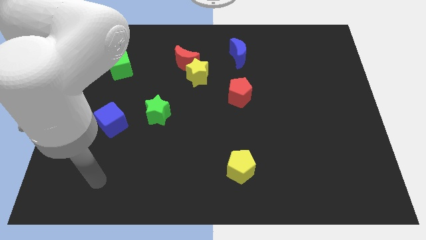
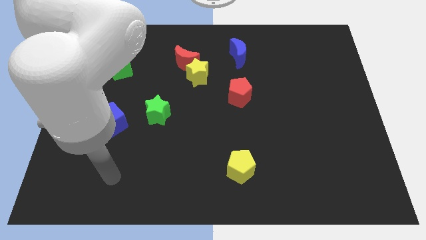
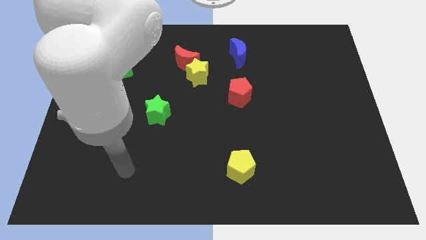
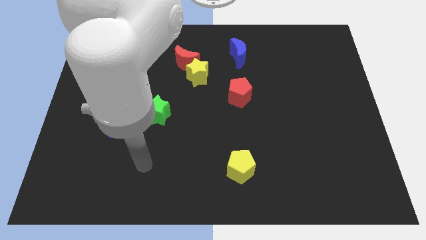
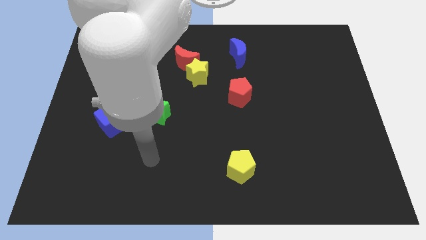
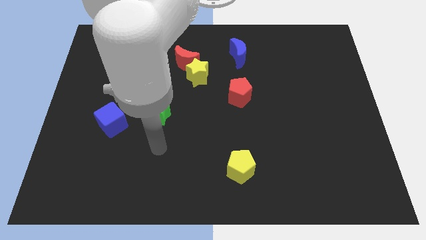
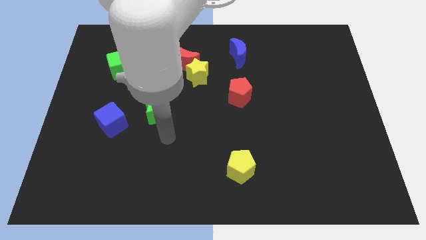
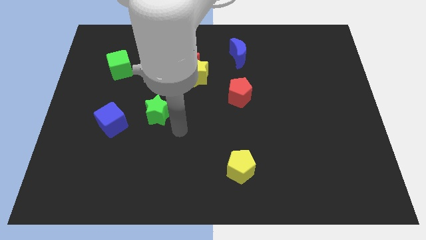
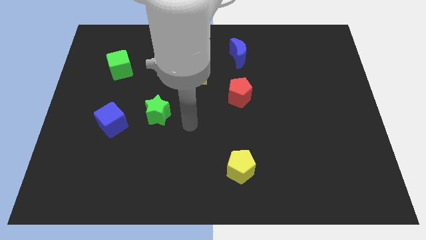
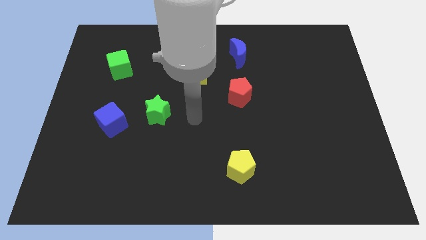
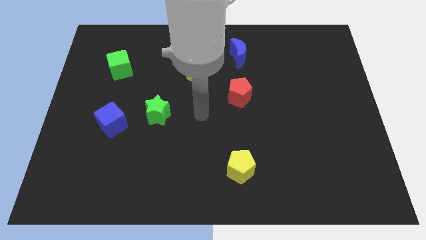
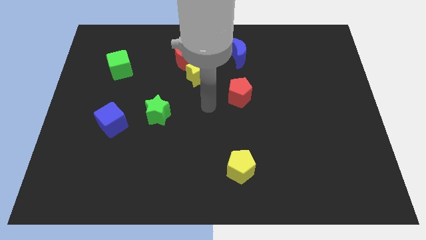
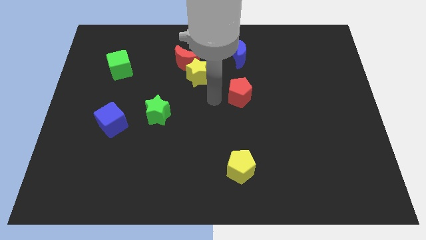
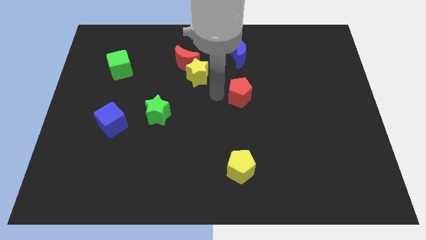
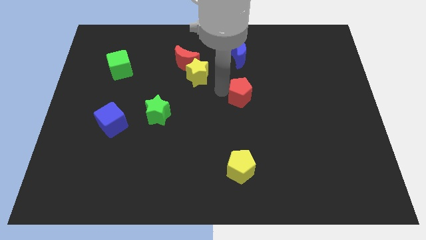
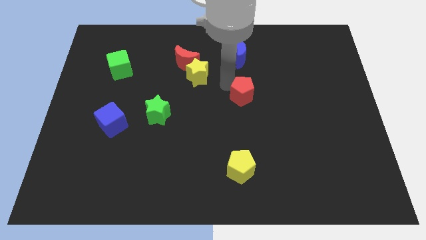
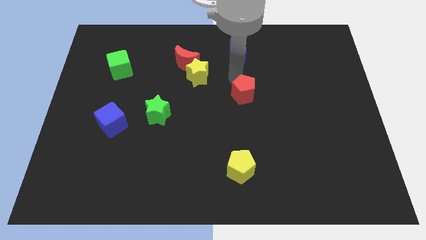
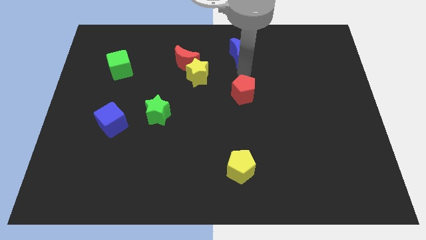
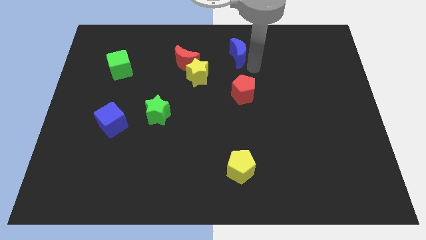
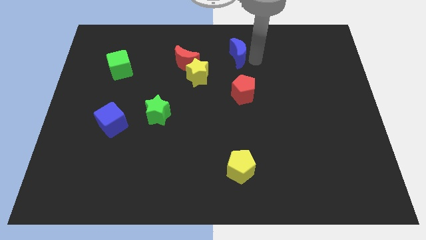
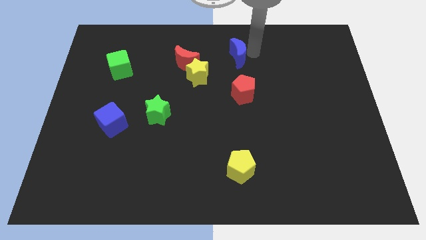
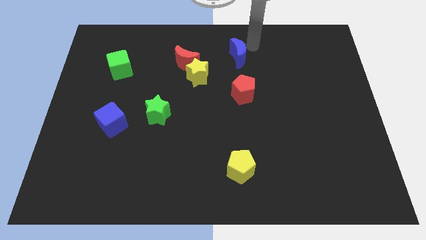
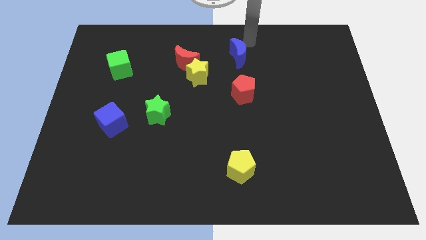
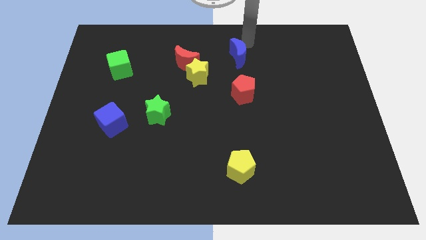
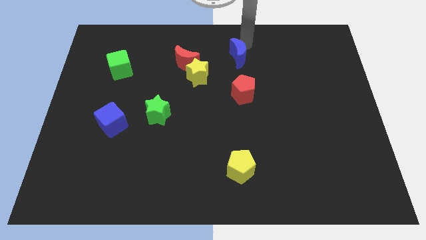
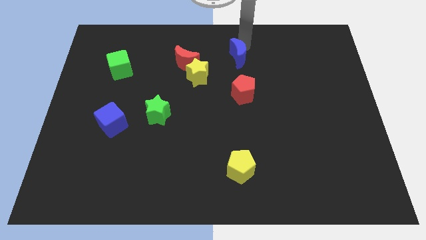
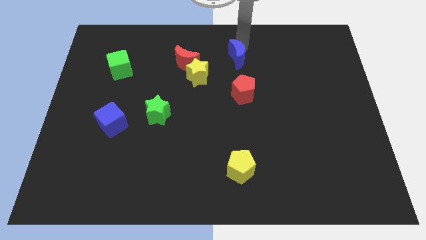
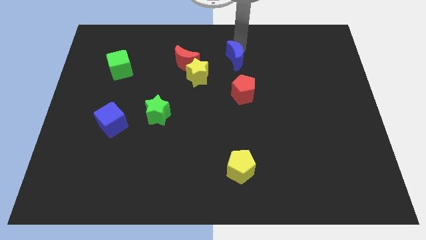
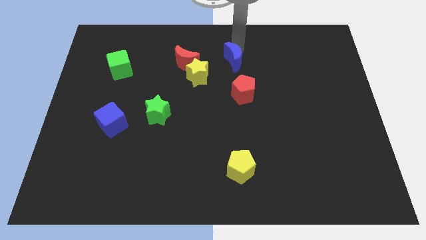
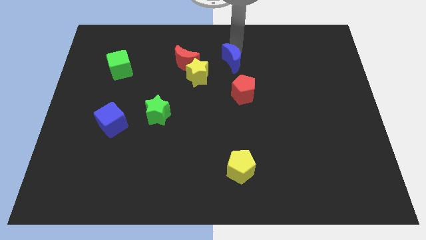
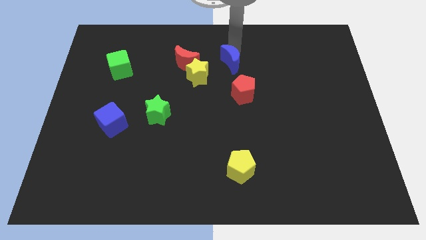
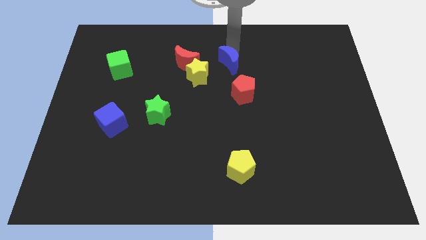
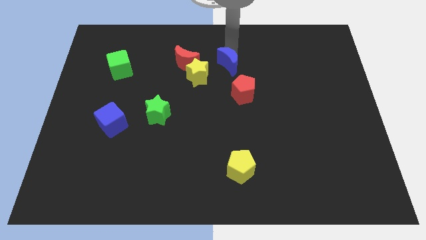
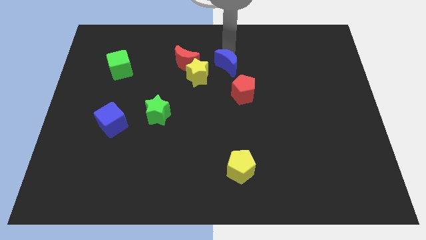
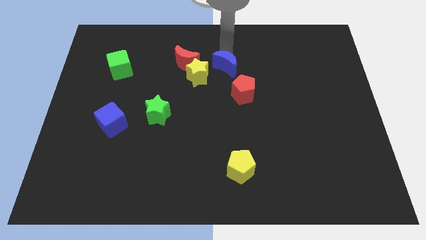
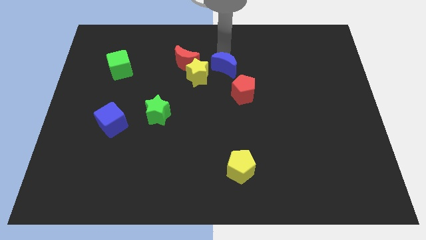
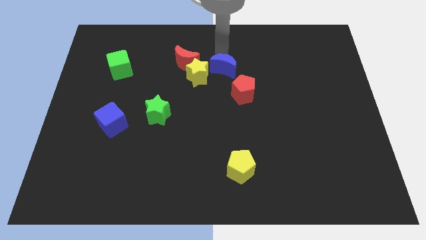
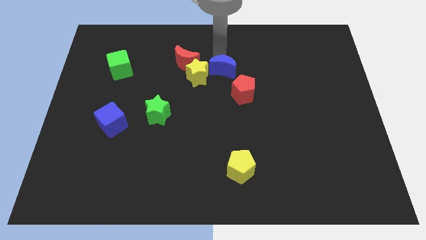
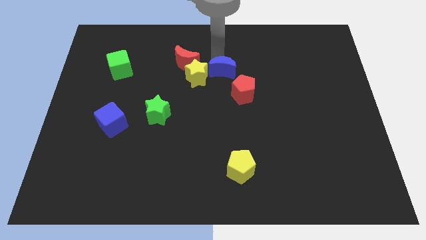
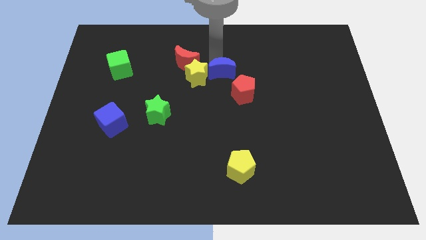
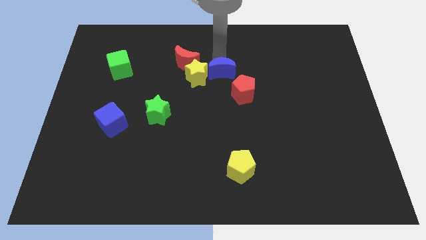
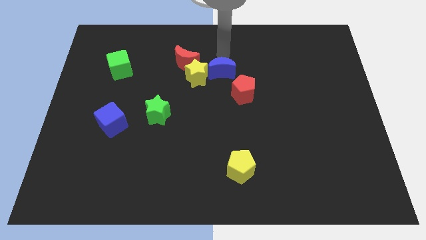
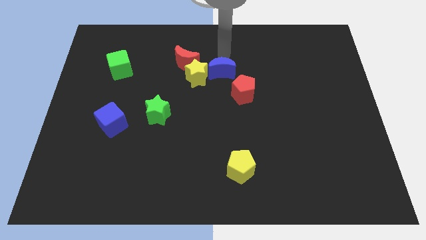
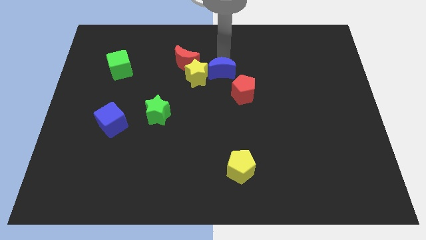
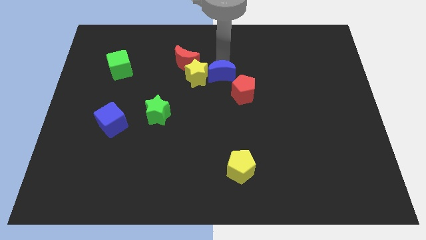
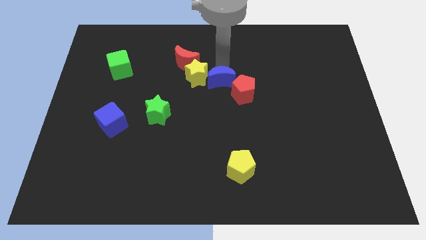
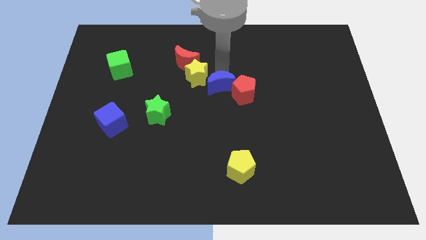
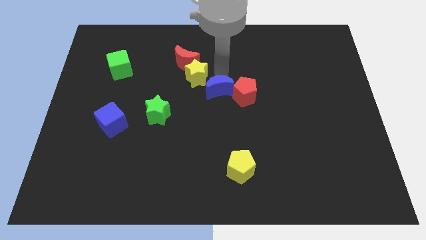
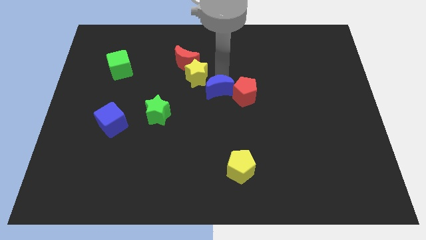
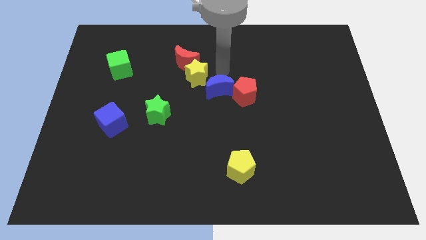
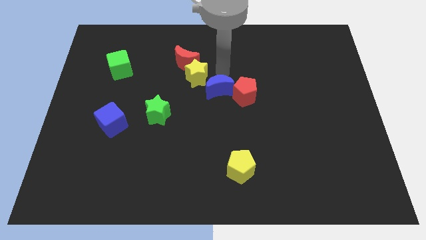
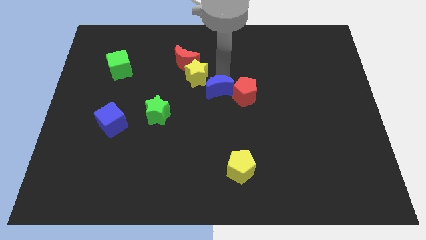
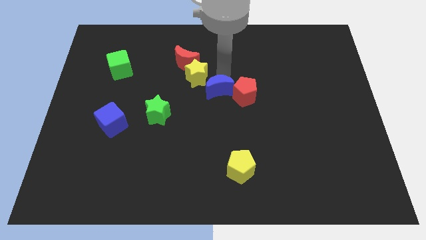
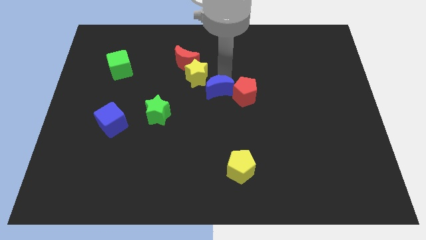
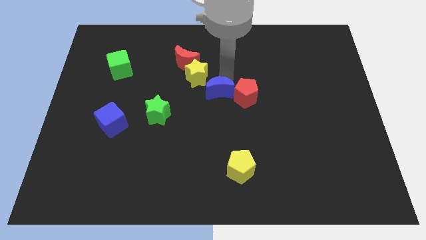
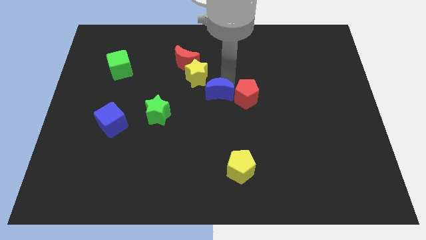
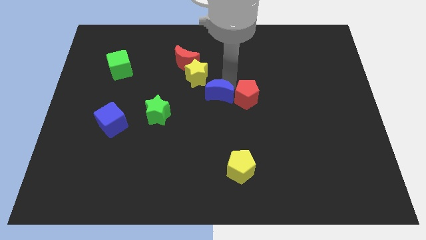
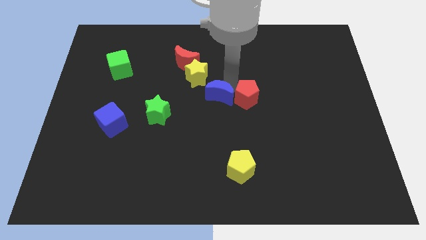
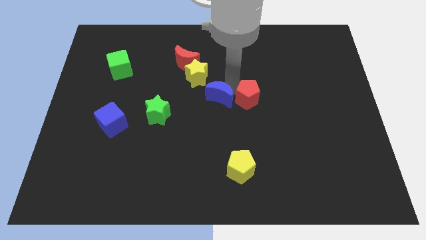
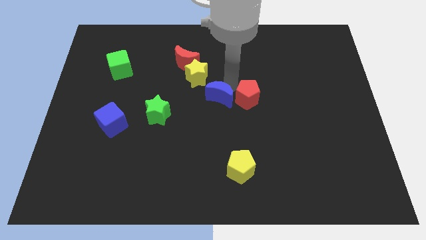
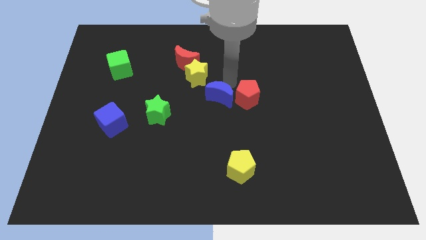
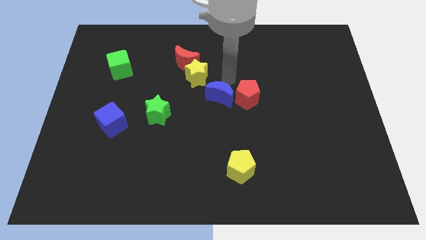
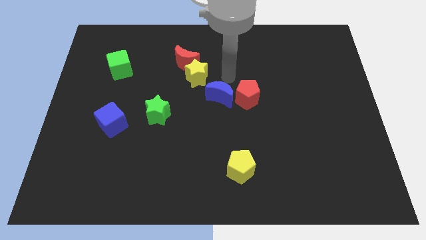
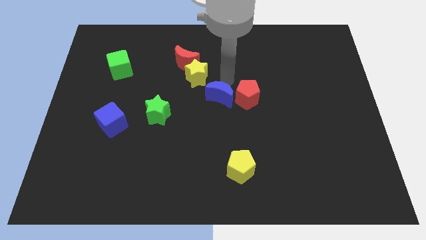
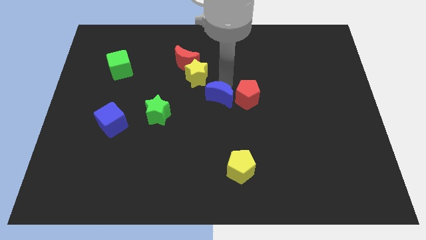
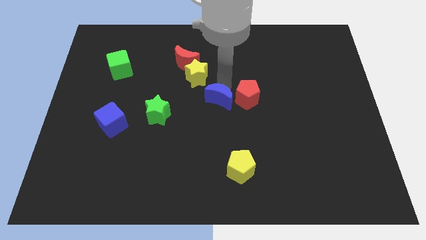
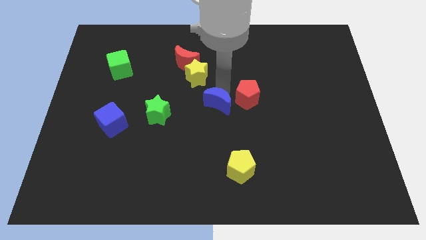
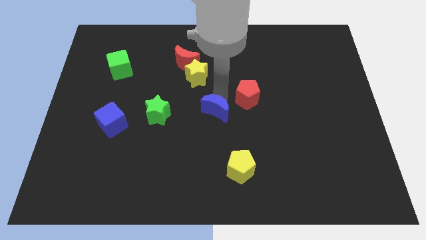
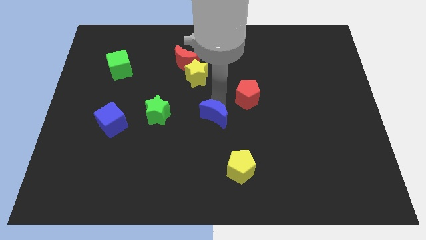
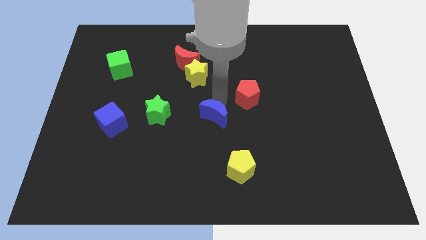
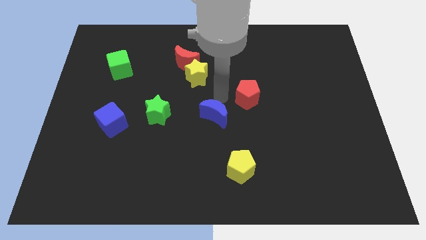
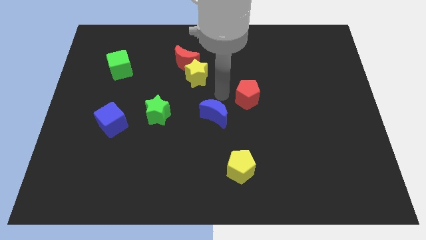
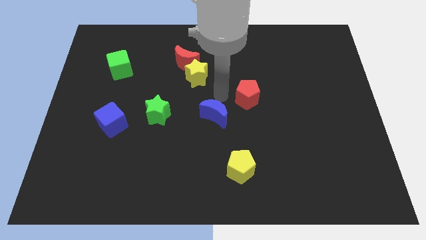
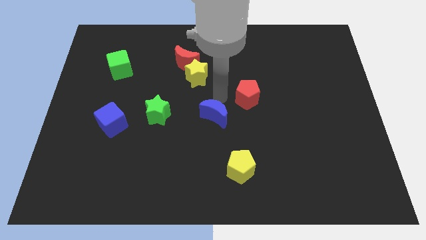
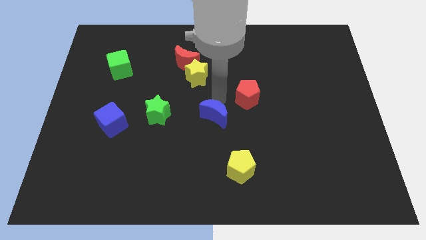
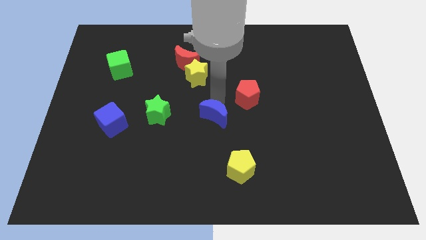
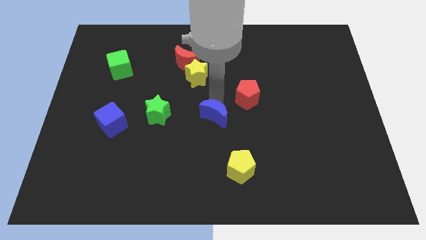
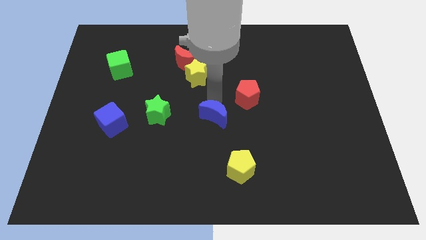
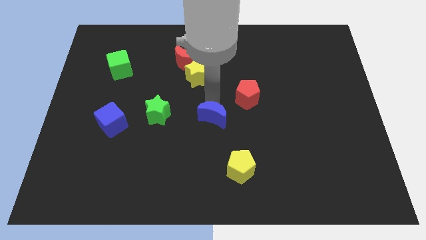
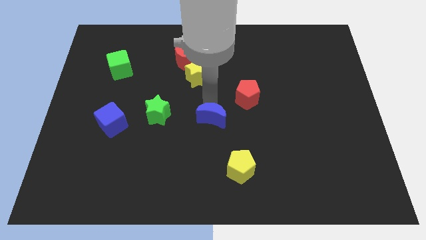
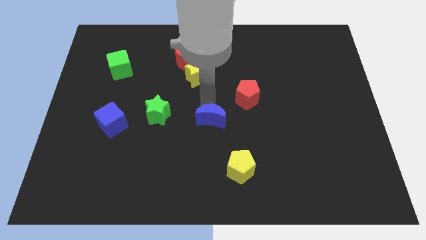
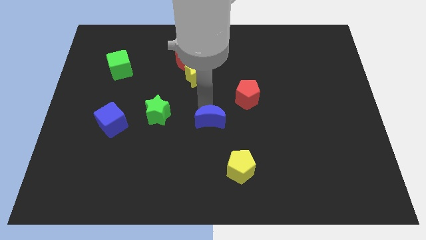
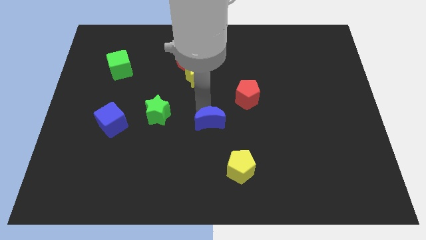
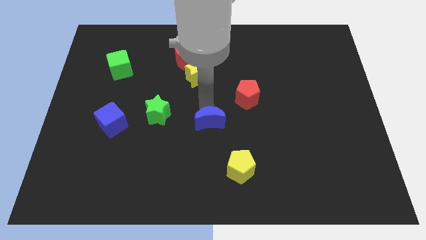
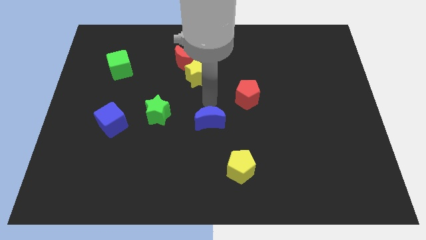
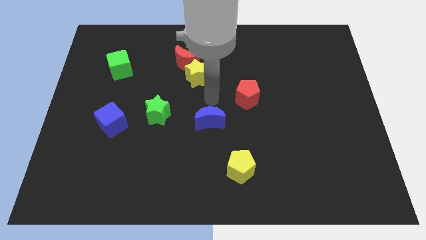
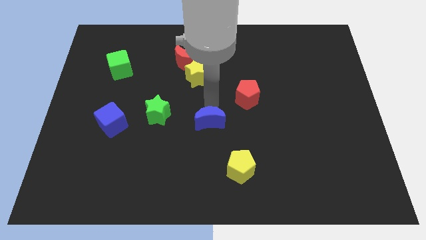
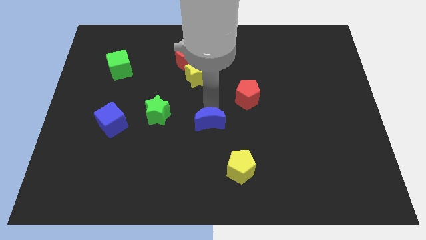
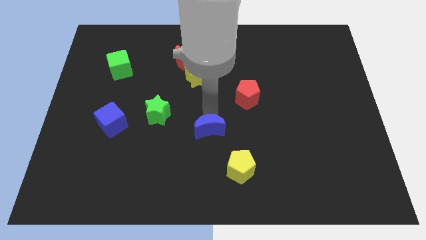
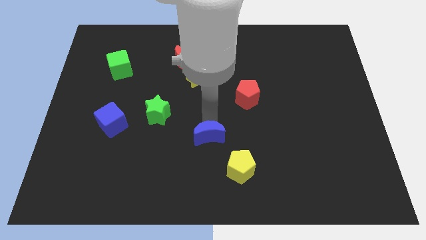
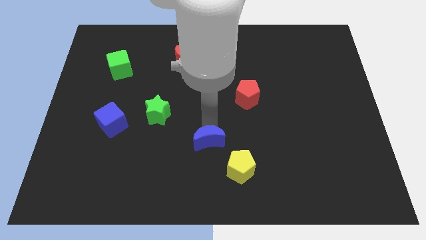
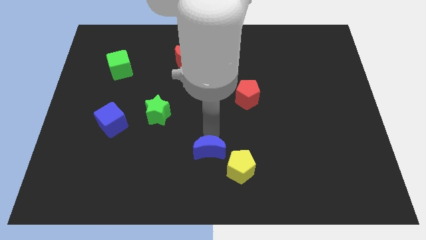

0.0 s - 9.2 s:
slide the blue moon just left of the yellow pentagon
